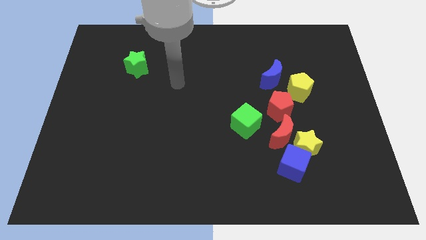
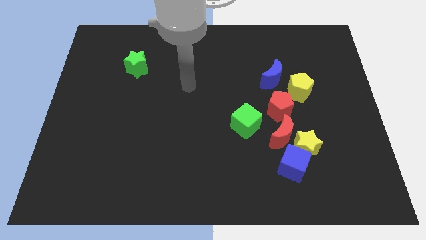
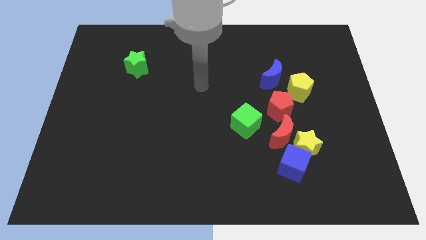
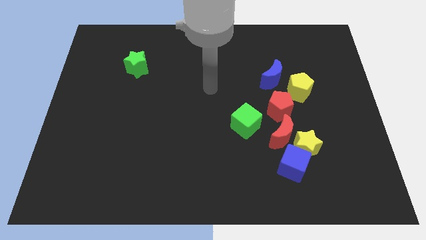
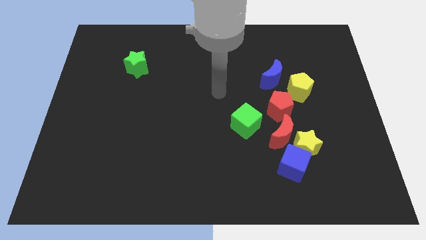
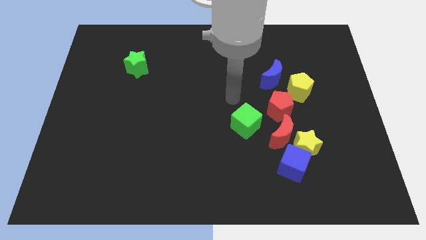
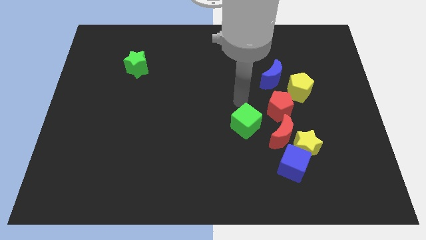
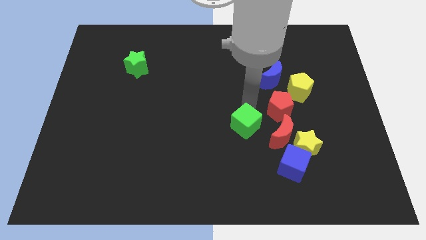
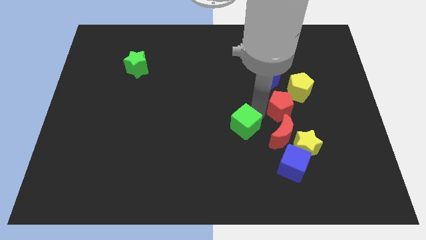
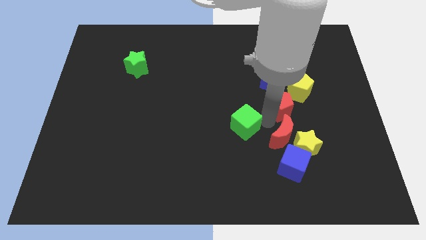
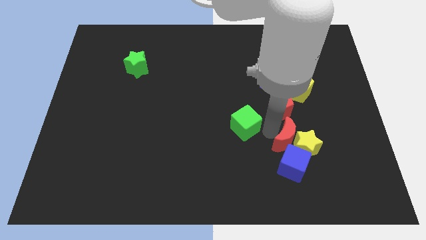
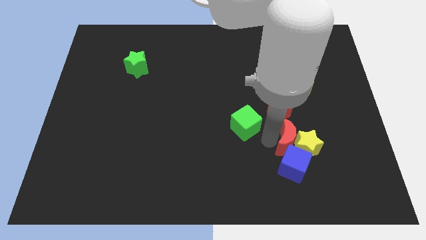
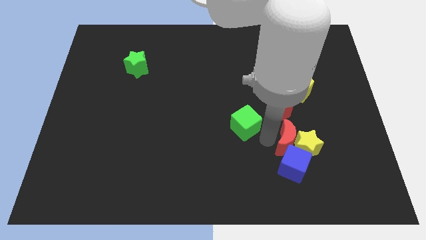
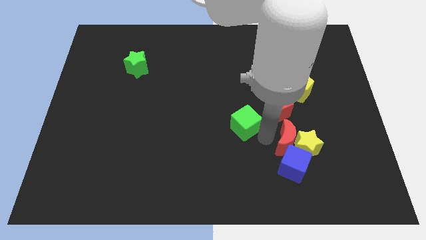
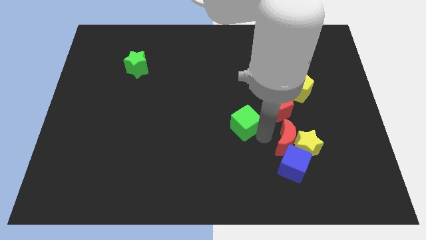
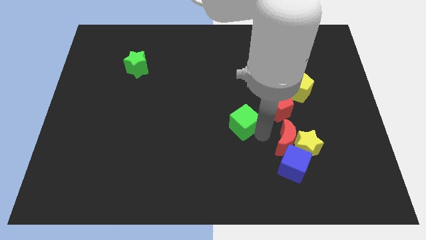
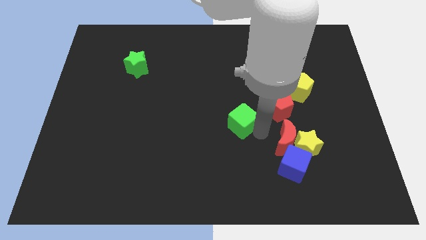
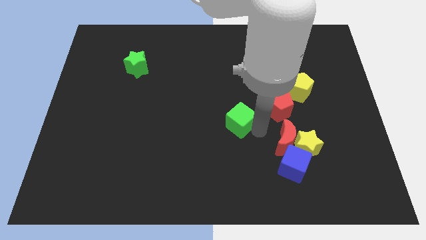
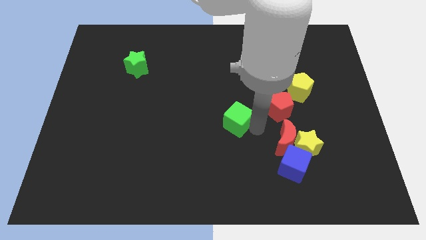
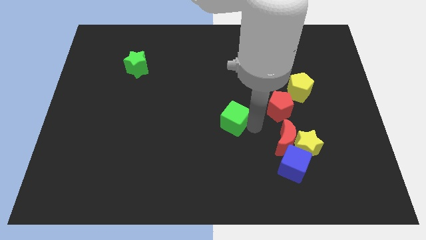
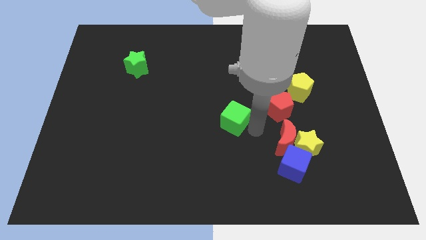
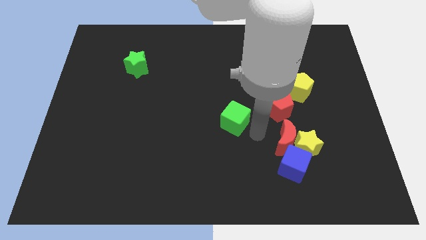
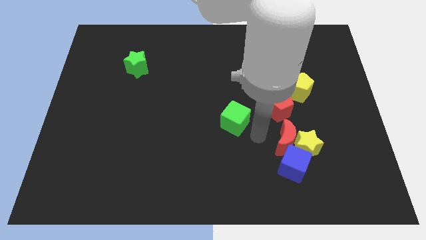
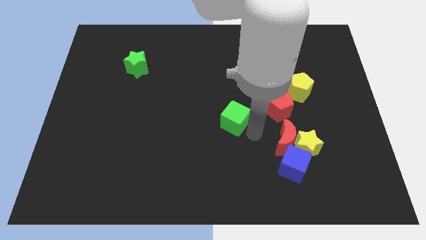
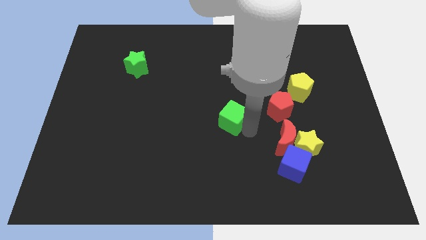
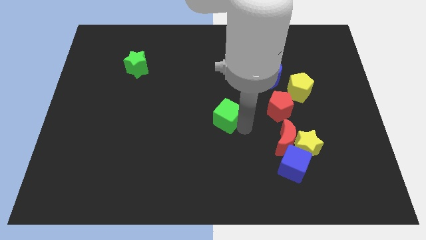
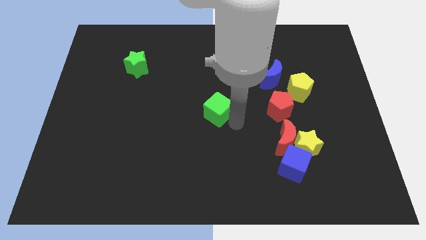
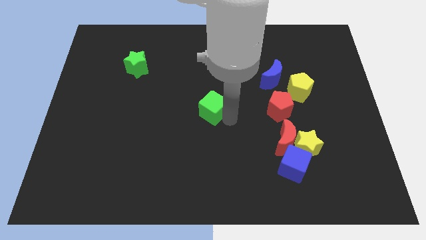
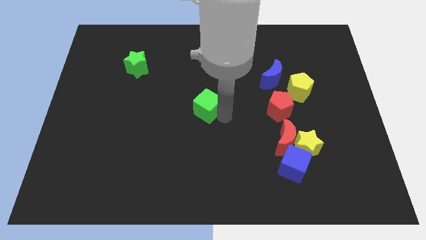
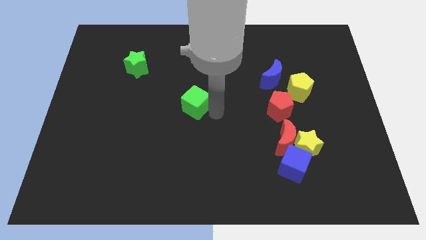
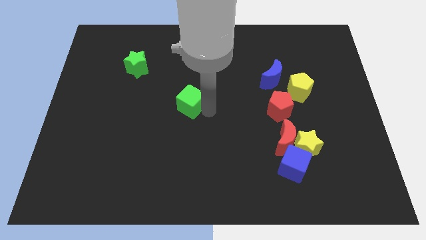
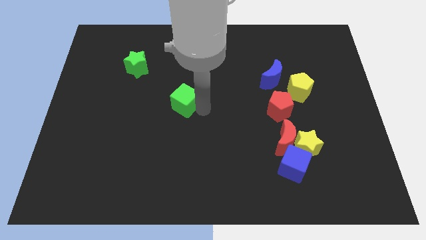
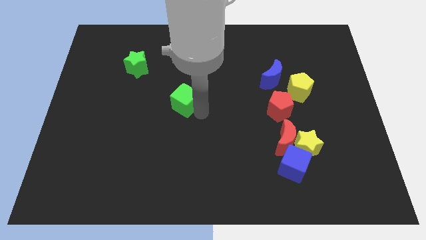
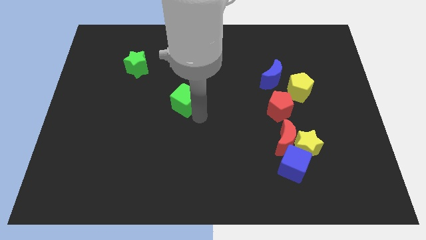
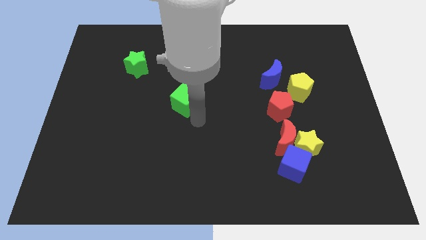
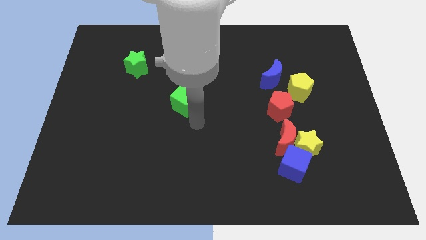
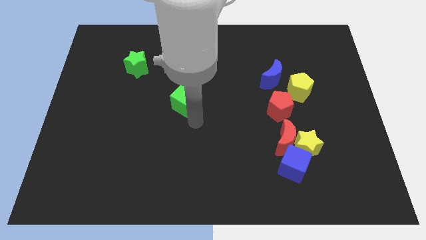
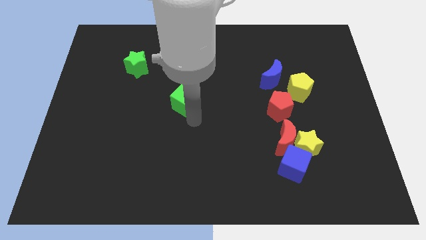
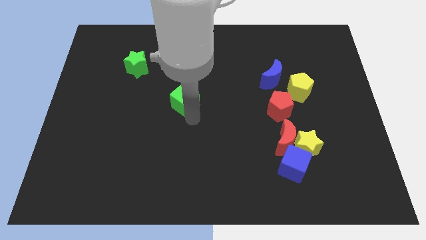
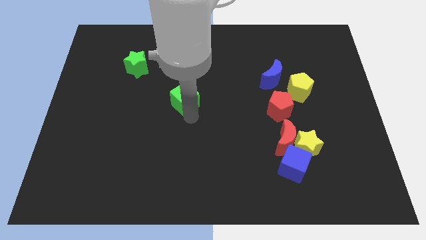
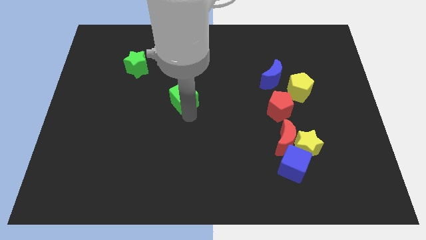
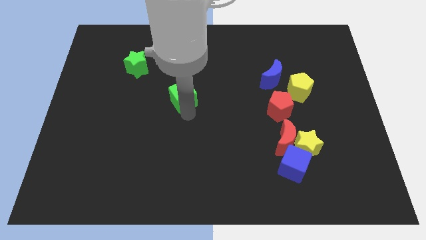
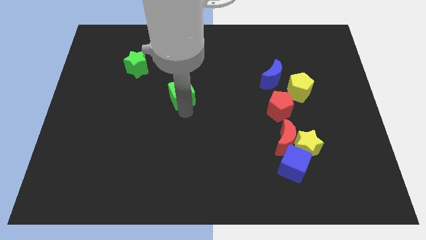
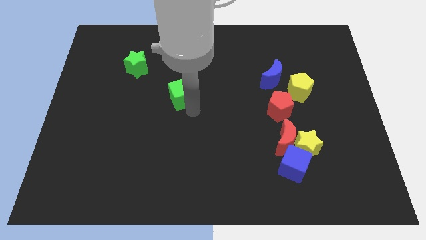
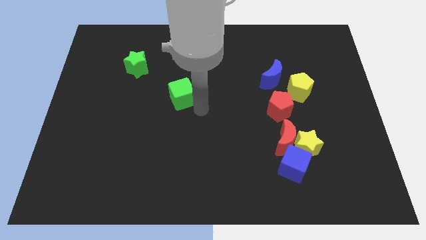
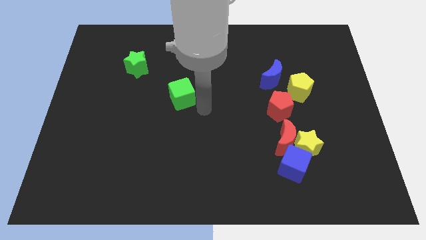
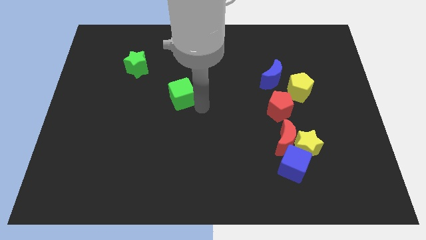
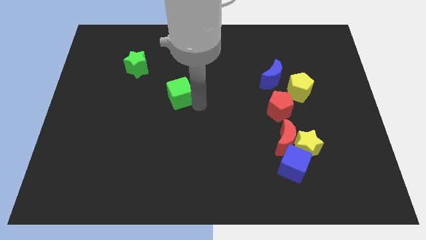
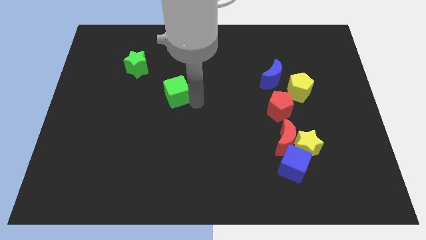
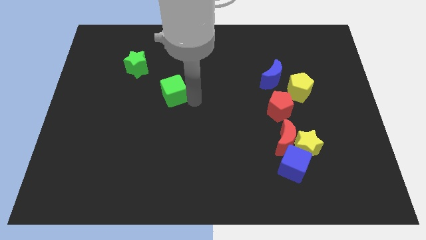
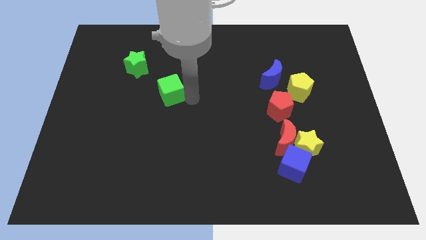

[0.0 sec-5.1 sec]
push the green cube to the bottom right of the green star

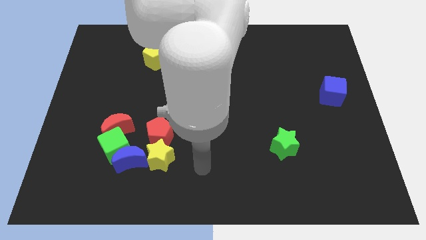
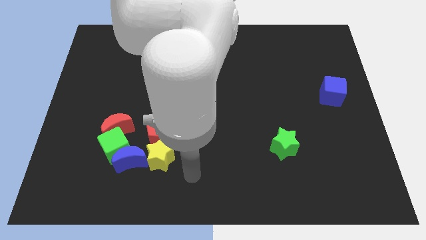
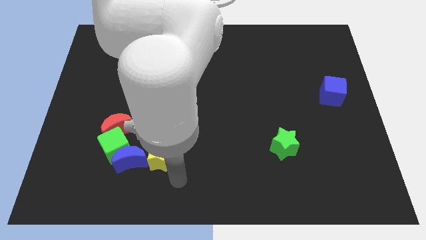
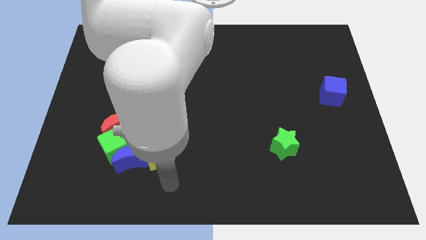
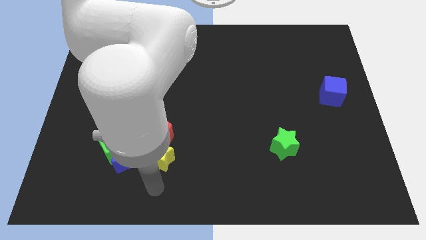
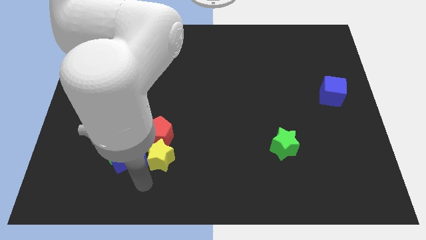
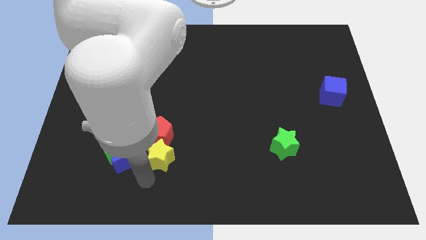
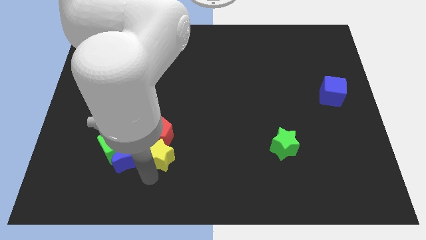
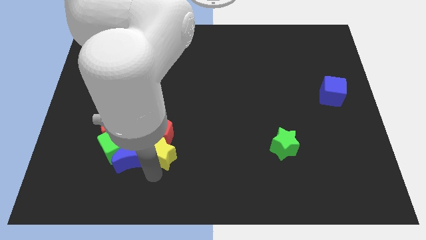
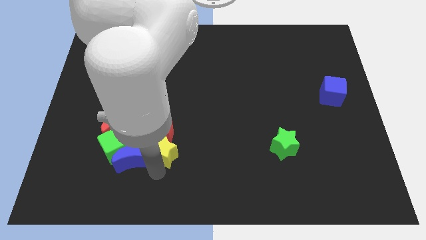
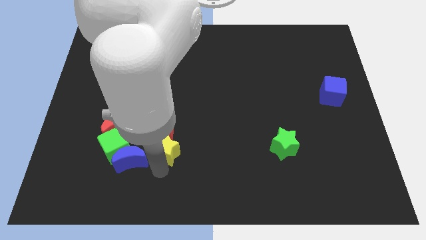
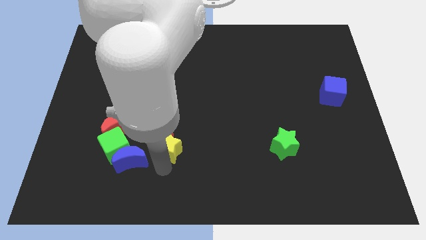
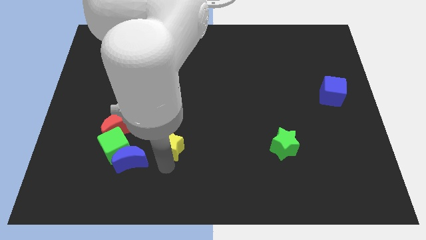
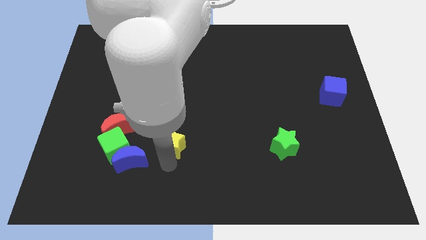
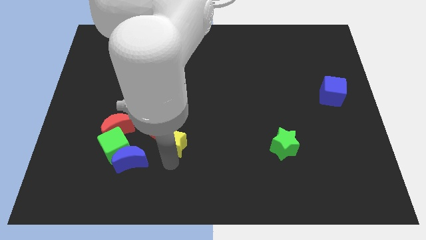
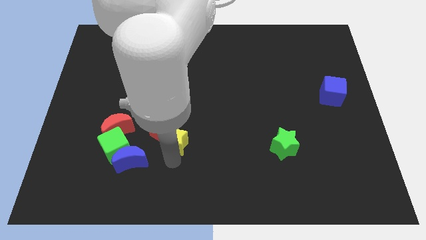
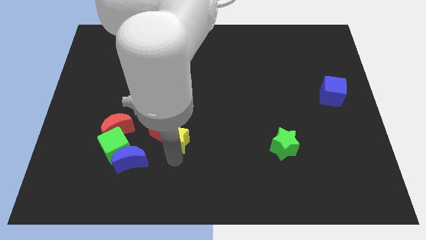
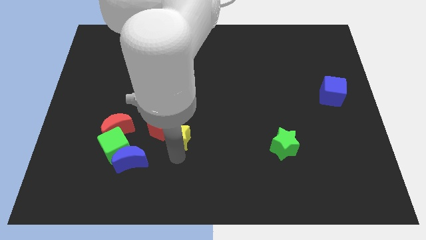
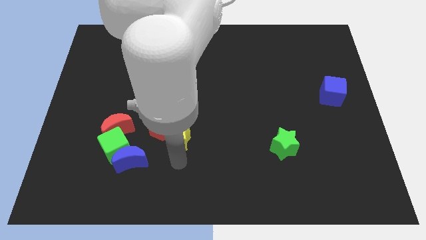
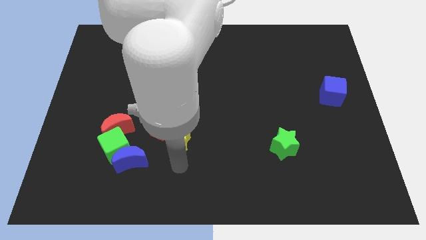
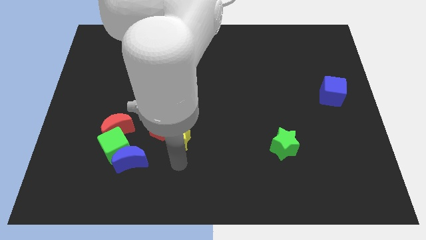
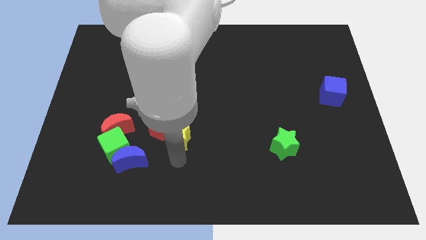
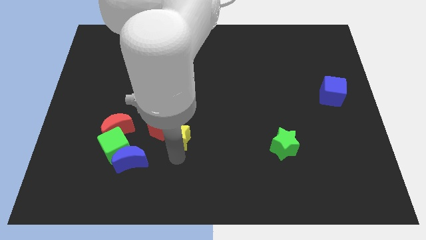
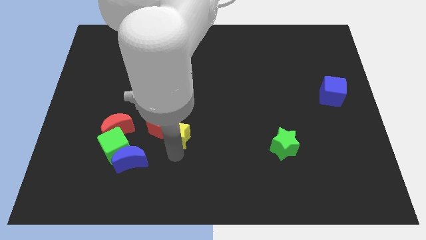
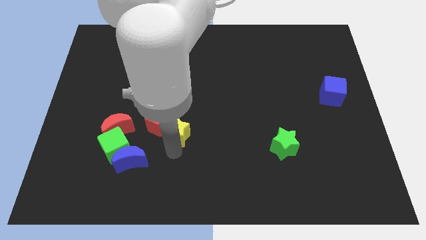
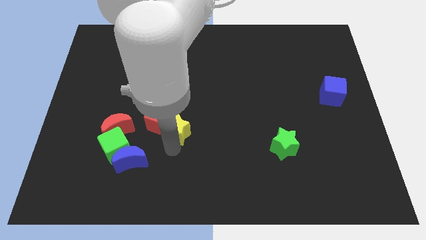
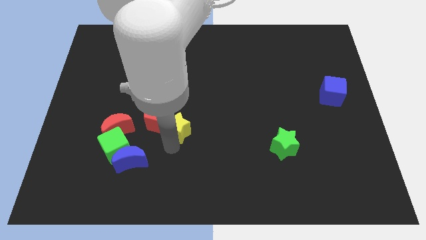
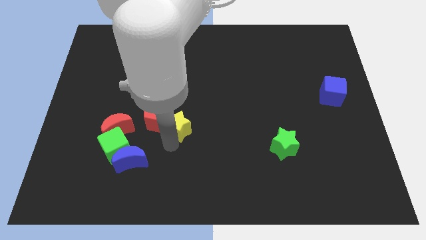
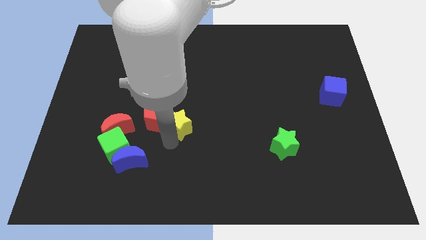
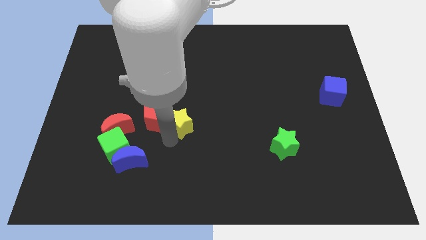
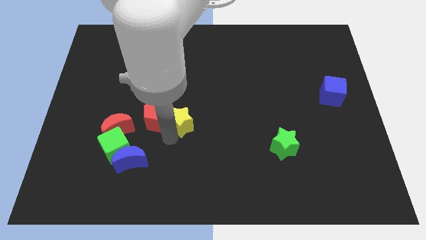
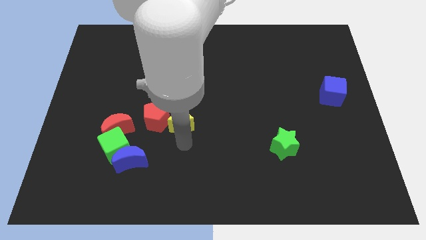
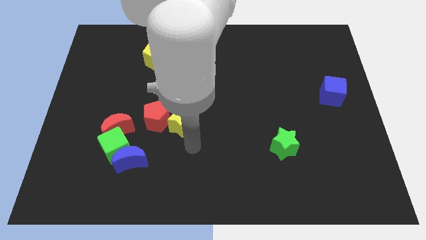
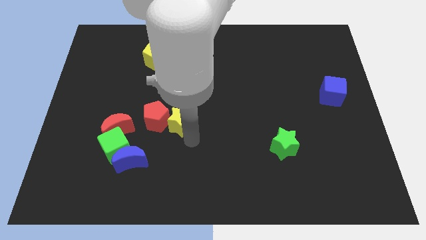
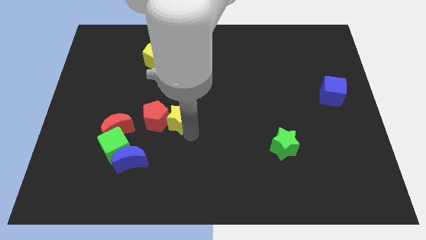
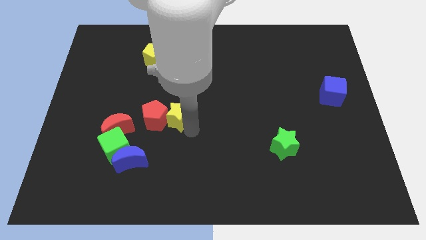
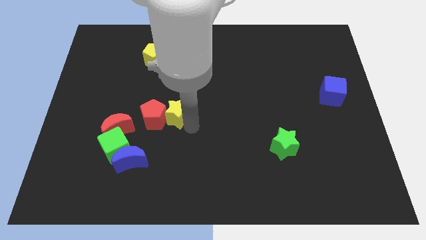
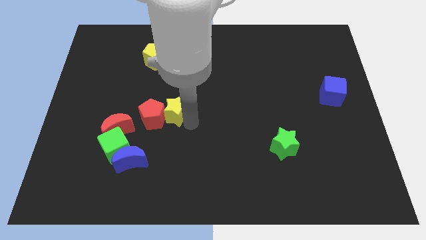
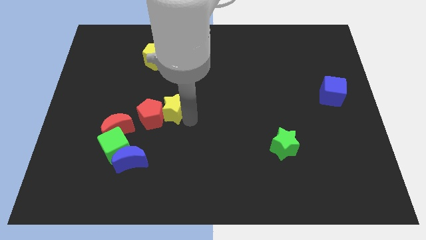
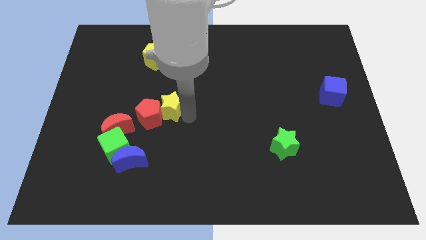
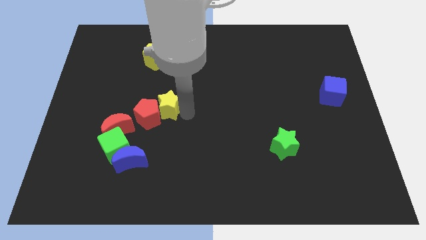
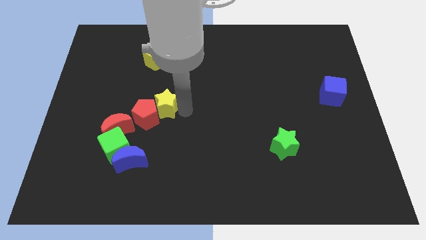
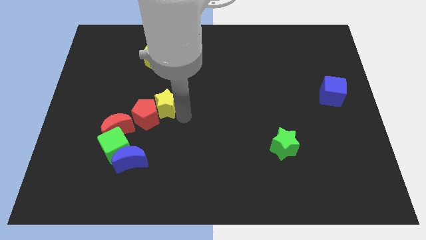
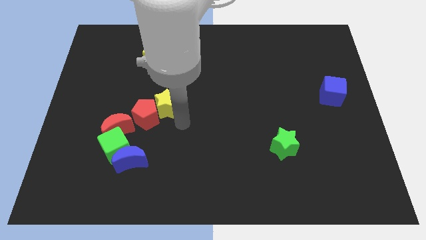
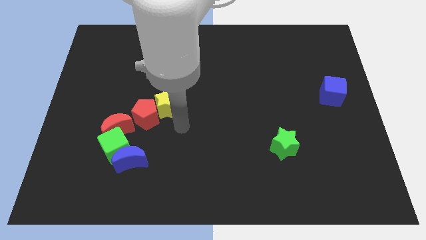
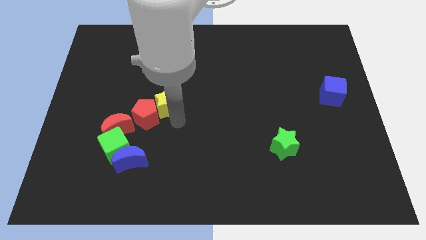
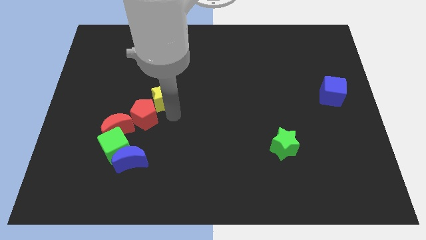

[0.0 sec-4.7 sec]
slide the yellow star to the top side of the red pentagon
